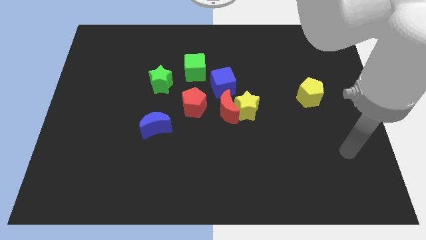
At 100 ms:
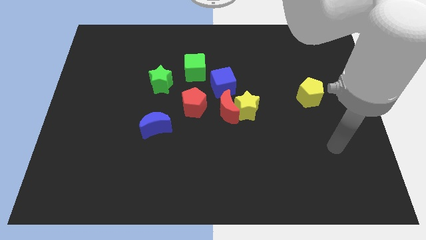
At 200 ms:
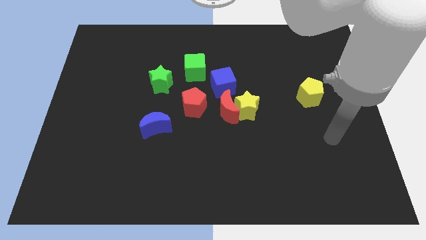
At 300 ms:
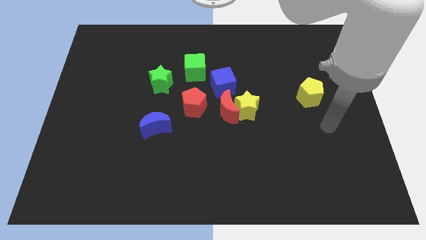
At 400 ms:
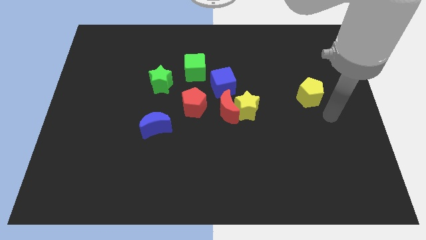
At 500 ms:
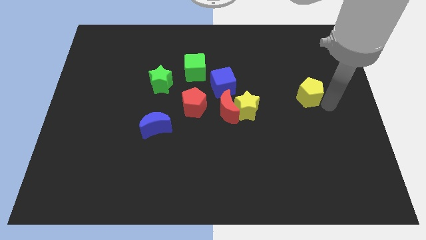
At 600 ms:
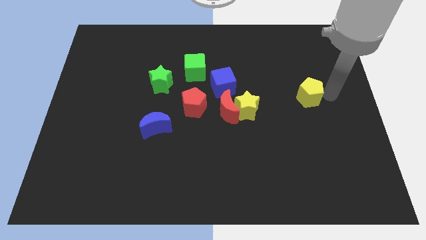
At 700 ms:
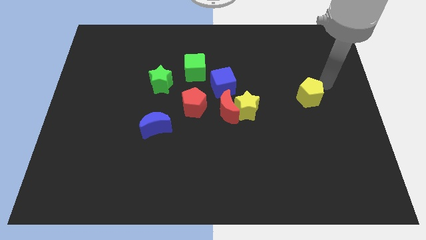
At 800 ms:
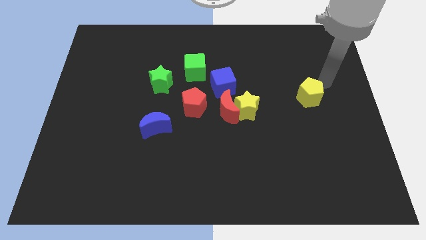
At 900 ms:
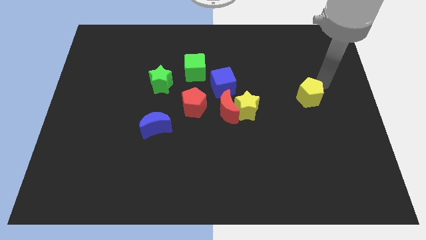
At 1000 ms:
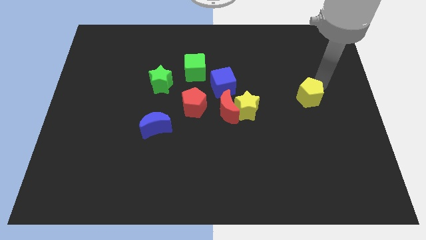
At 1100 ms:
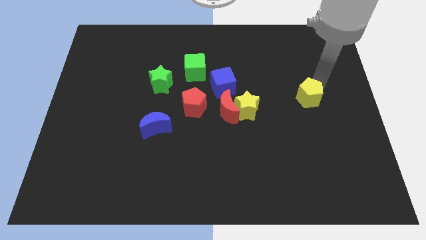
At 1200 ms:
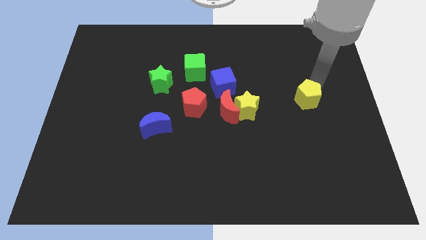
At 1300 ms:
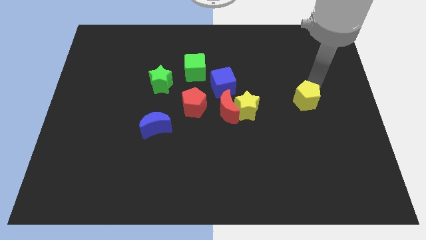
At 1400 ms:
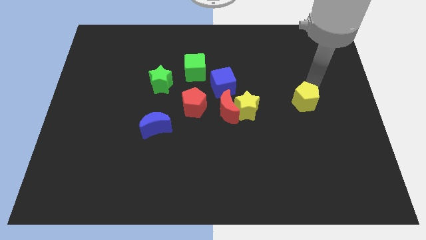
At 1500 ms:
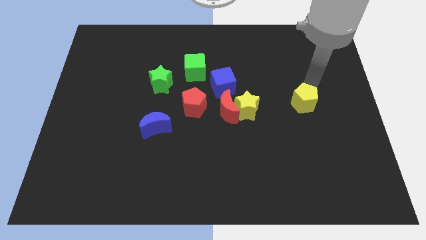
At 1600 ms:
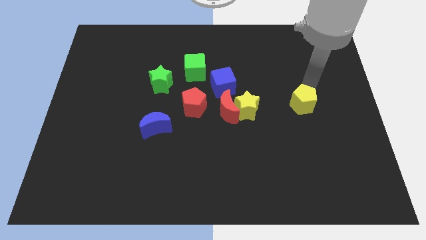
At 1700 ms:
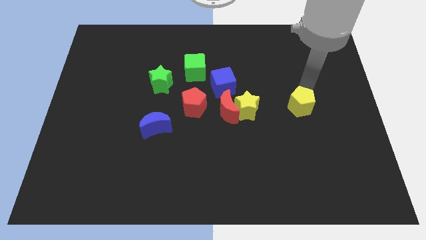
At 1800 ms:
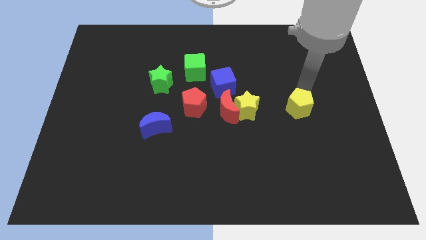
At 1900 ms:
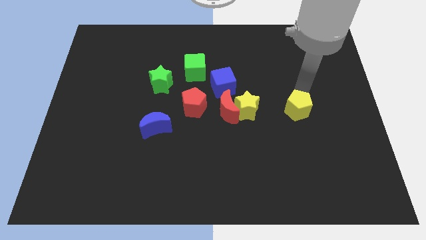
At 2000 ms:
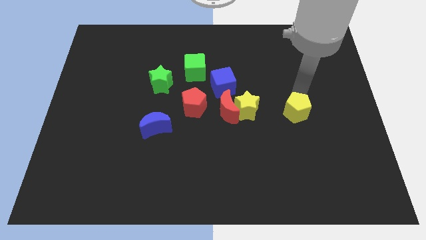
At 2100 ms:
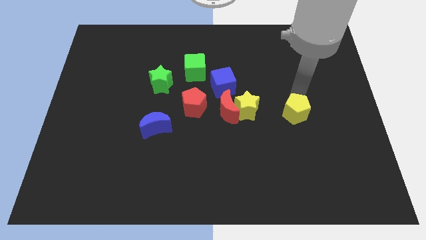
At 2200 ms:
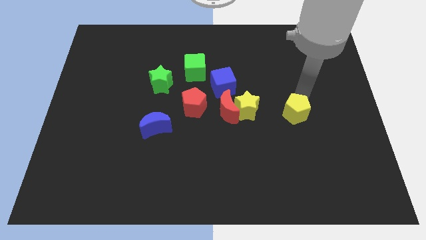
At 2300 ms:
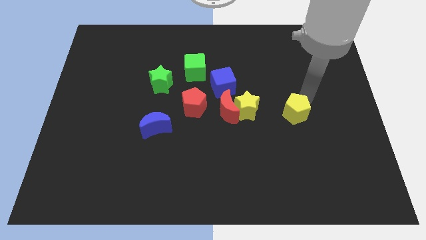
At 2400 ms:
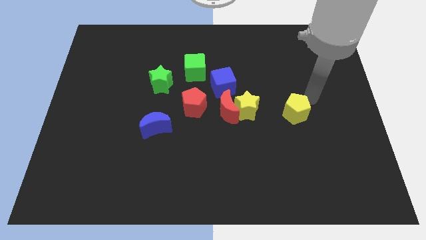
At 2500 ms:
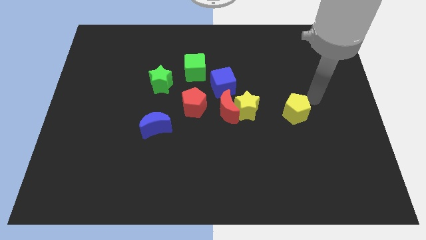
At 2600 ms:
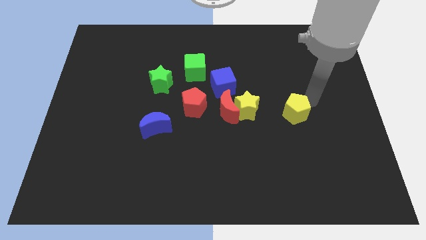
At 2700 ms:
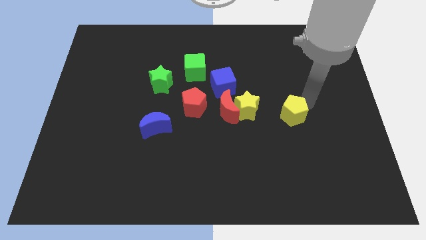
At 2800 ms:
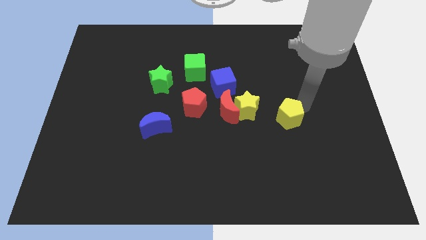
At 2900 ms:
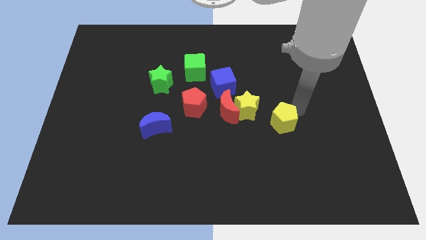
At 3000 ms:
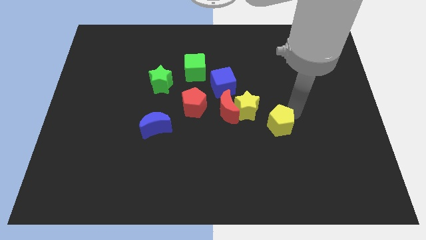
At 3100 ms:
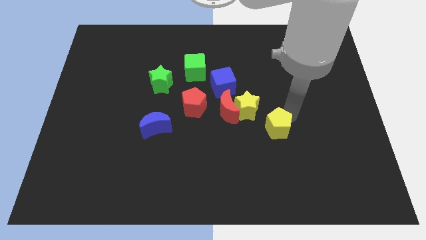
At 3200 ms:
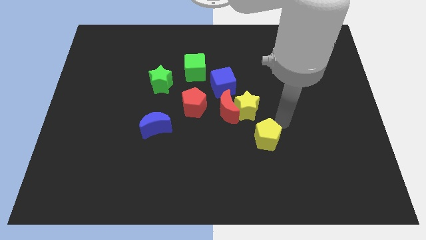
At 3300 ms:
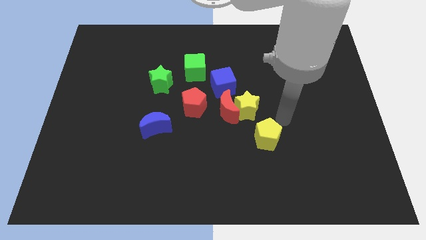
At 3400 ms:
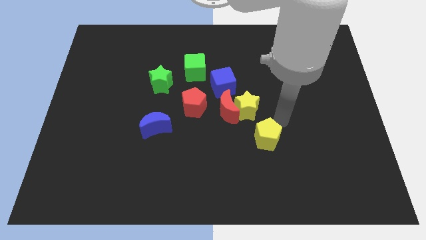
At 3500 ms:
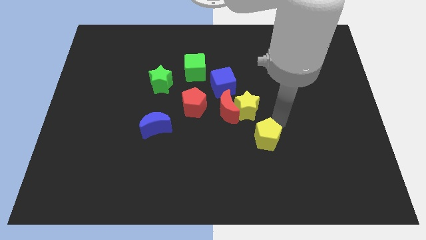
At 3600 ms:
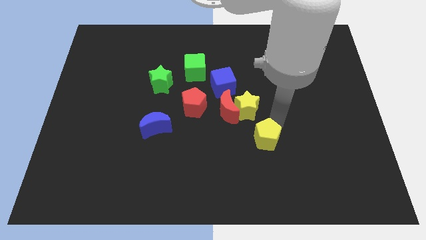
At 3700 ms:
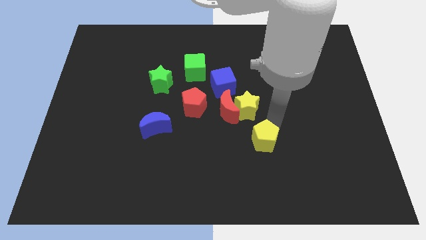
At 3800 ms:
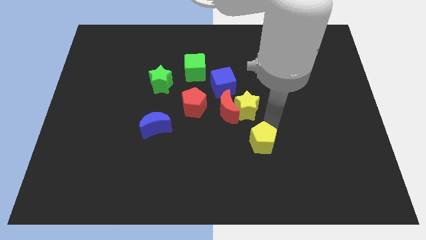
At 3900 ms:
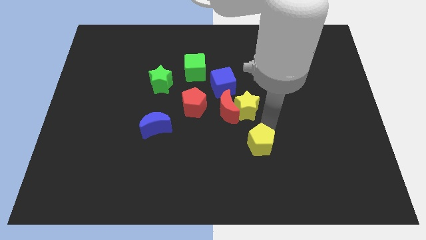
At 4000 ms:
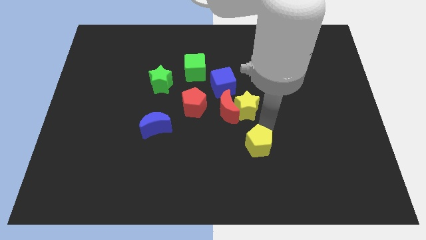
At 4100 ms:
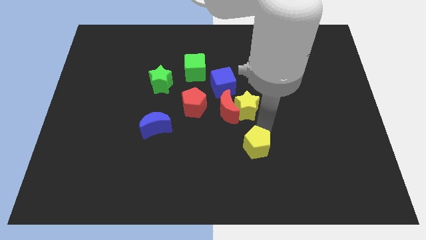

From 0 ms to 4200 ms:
move the yellow pentagon down and left diagonally

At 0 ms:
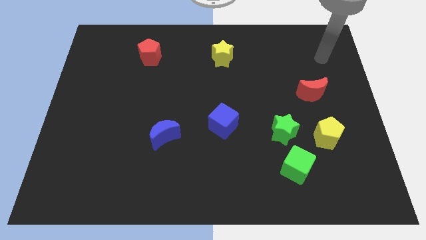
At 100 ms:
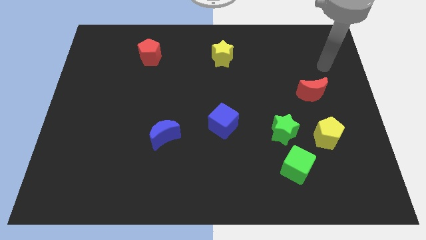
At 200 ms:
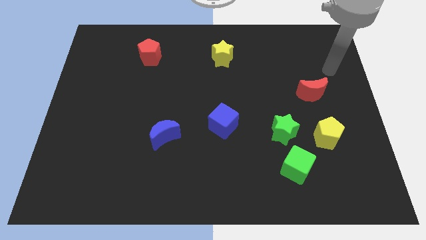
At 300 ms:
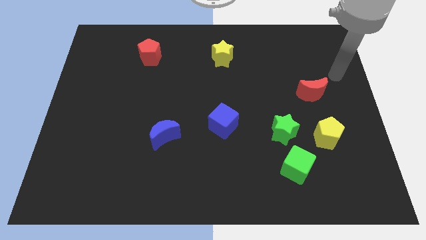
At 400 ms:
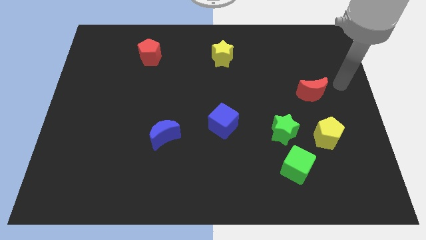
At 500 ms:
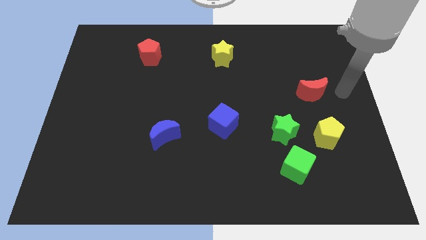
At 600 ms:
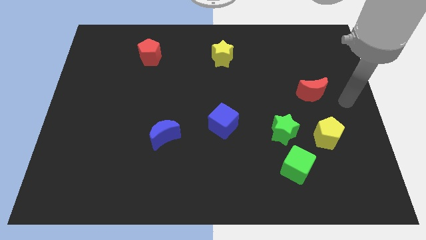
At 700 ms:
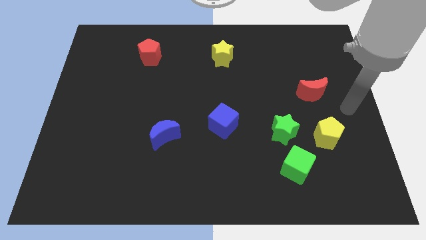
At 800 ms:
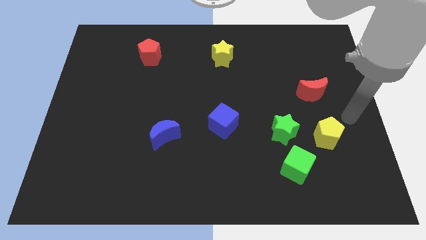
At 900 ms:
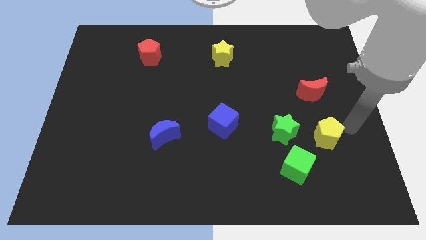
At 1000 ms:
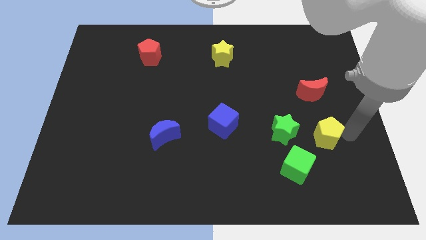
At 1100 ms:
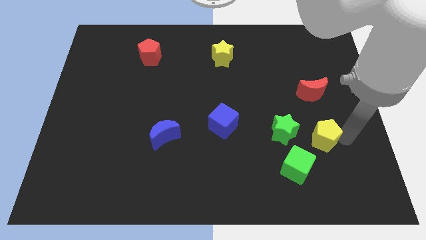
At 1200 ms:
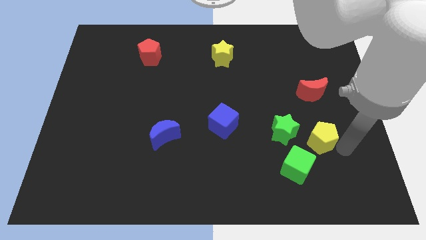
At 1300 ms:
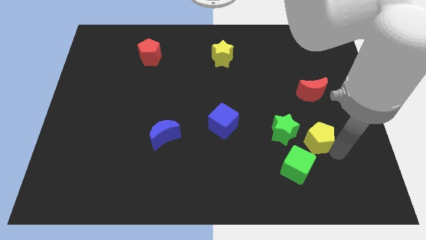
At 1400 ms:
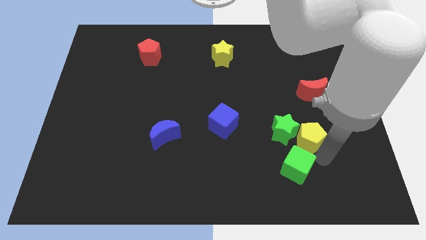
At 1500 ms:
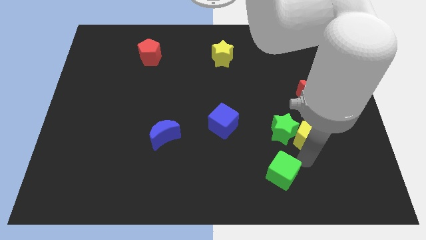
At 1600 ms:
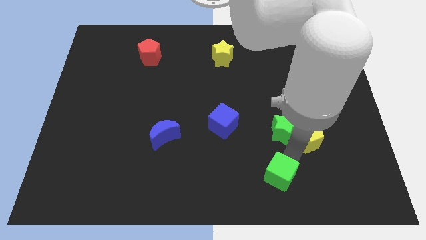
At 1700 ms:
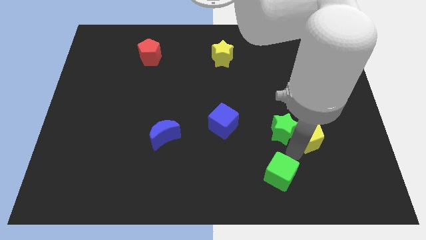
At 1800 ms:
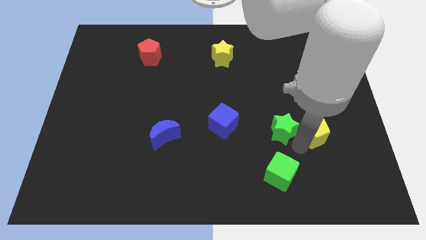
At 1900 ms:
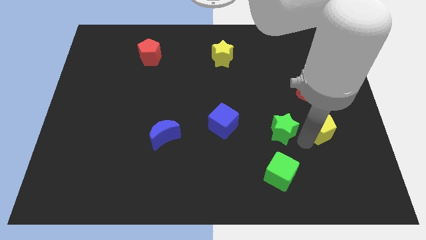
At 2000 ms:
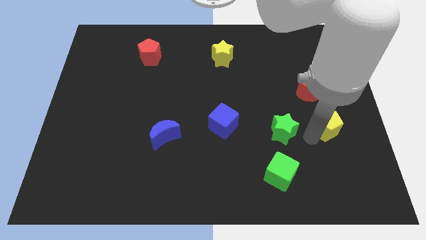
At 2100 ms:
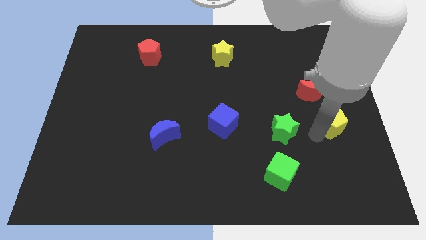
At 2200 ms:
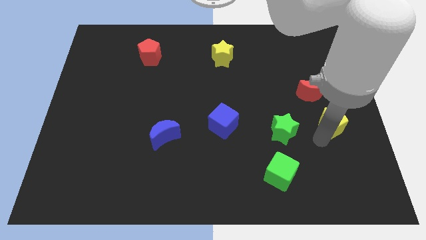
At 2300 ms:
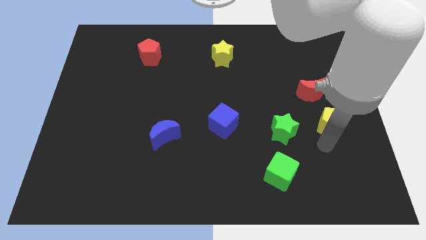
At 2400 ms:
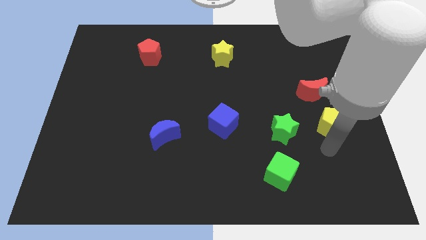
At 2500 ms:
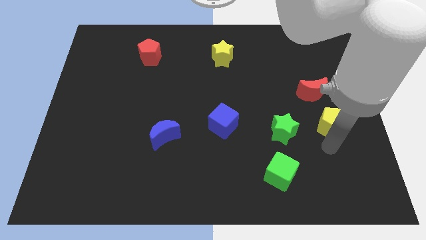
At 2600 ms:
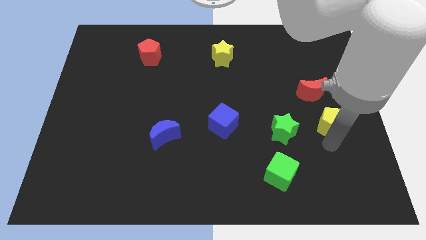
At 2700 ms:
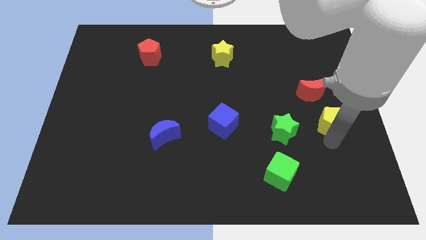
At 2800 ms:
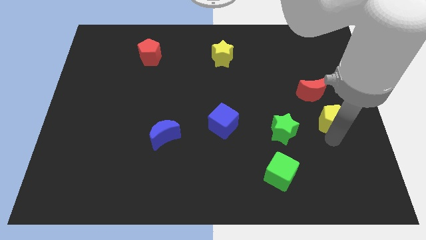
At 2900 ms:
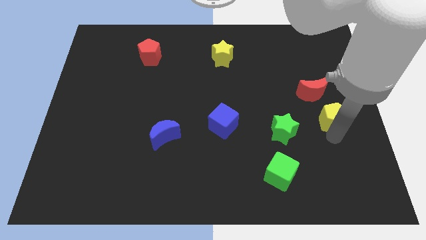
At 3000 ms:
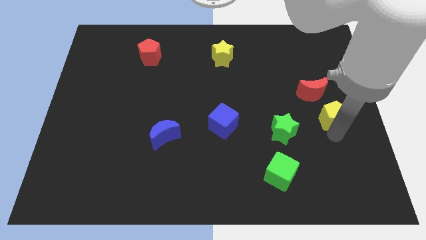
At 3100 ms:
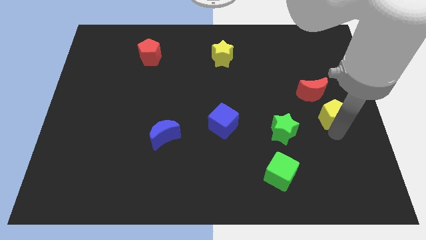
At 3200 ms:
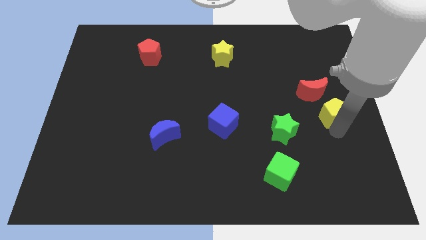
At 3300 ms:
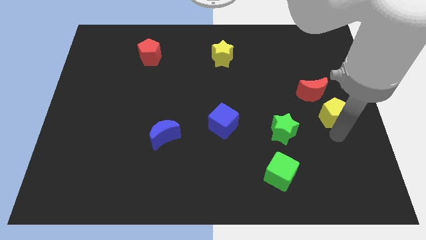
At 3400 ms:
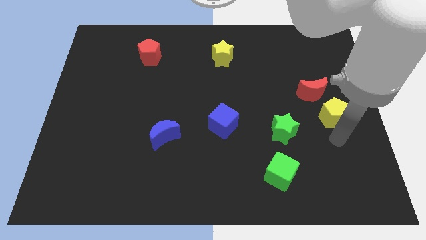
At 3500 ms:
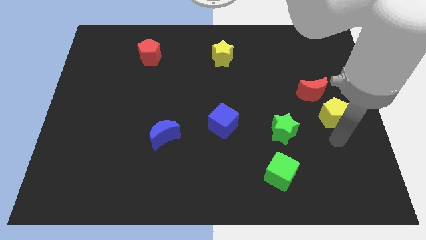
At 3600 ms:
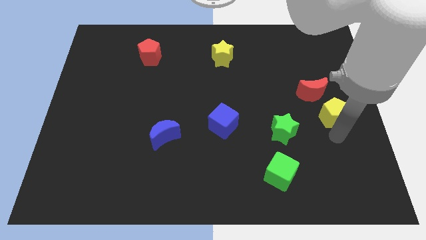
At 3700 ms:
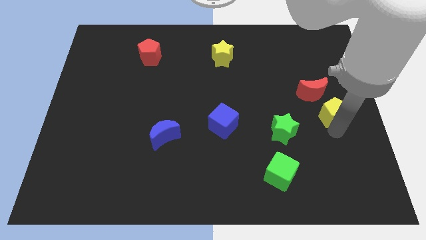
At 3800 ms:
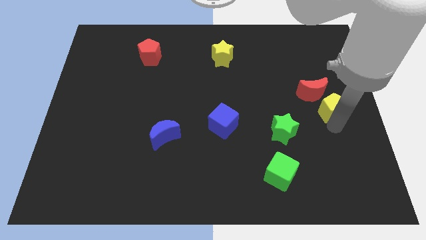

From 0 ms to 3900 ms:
slightly push the yellow pentagon upwards

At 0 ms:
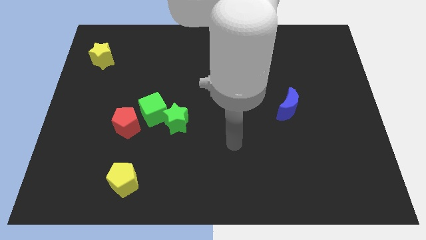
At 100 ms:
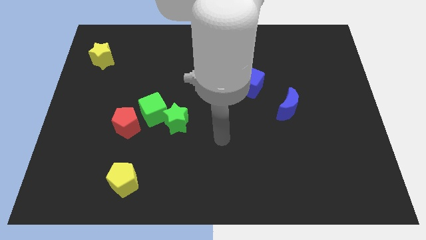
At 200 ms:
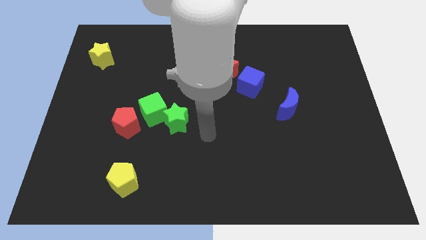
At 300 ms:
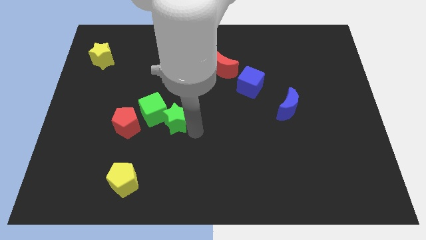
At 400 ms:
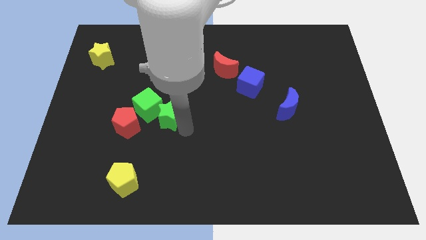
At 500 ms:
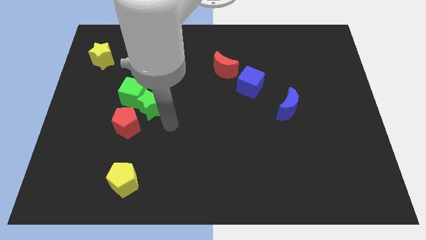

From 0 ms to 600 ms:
slightly move the green cube upwards and to the left diagonally
